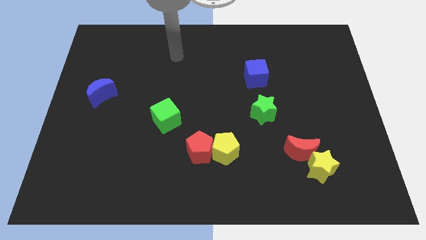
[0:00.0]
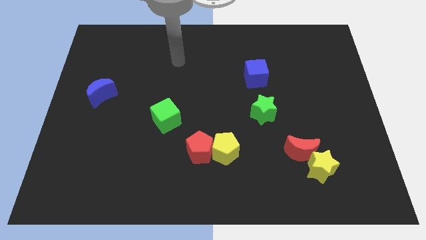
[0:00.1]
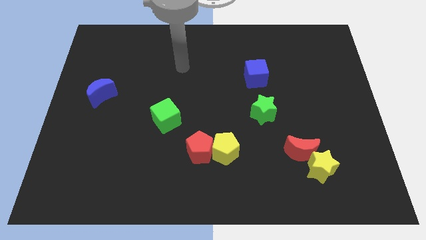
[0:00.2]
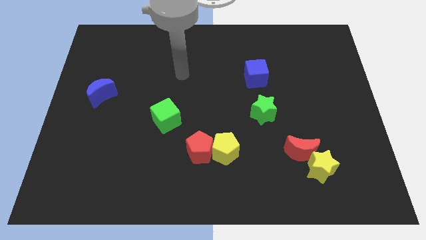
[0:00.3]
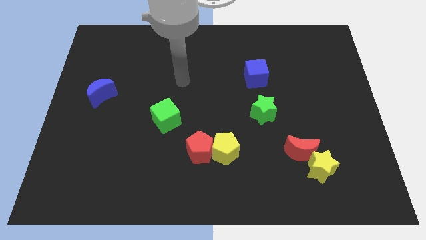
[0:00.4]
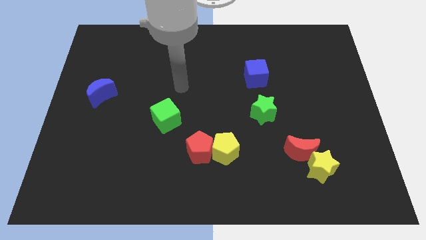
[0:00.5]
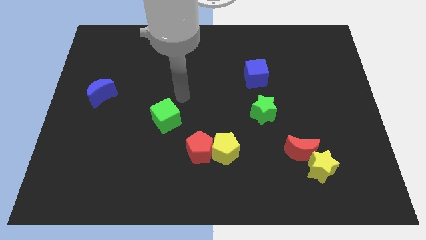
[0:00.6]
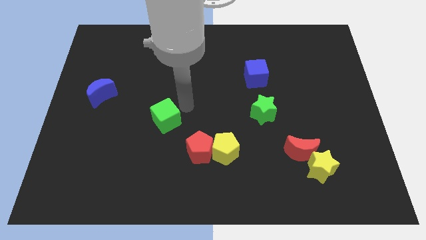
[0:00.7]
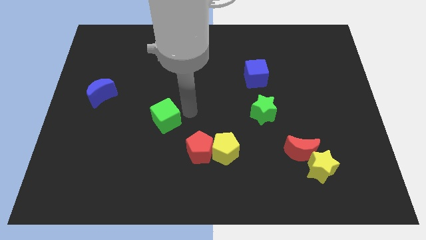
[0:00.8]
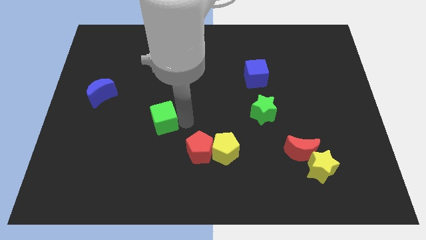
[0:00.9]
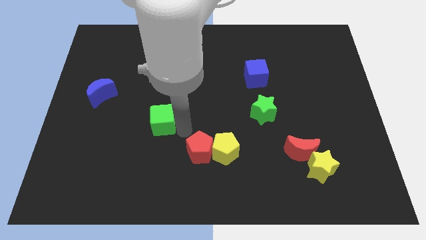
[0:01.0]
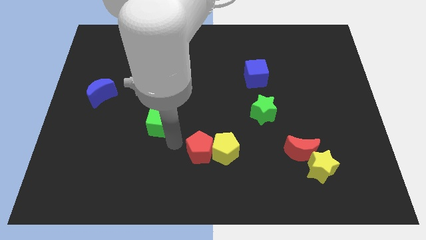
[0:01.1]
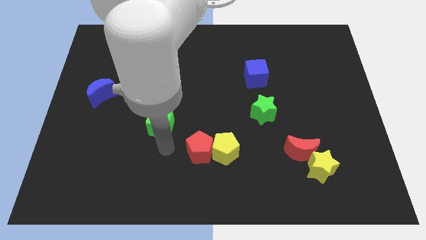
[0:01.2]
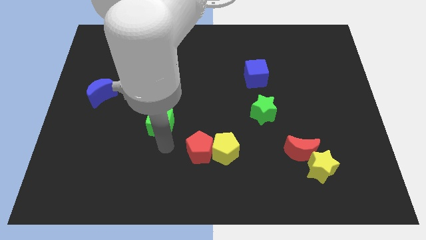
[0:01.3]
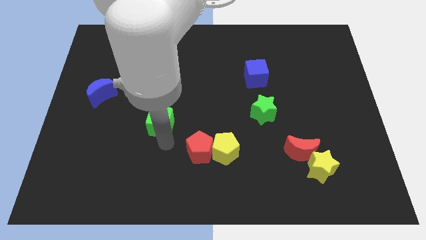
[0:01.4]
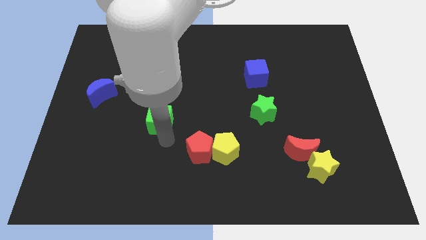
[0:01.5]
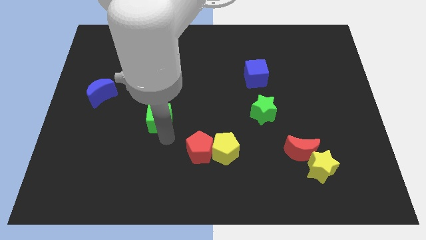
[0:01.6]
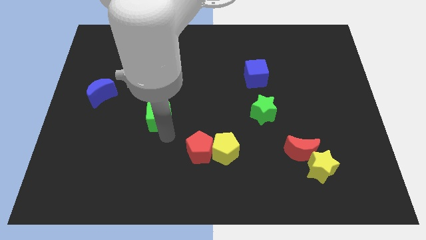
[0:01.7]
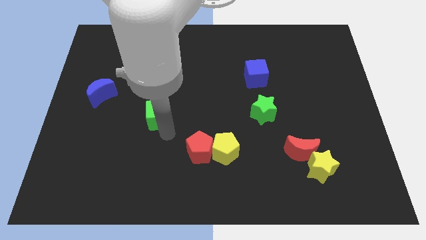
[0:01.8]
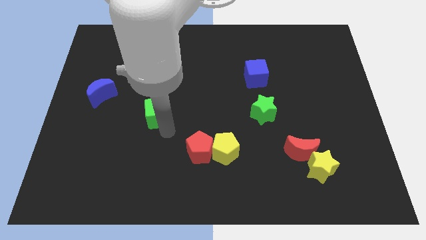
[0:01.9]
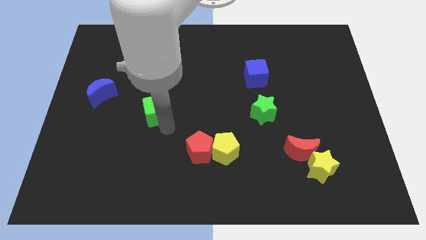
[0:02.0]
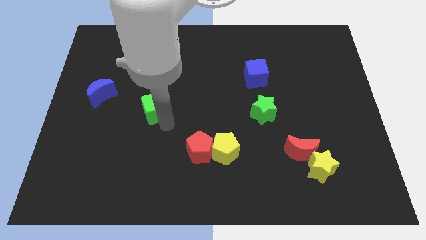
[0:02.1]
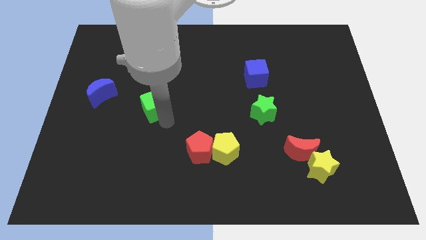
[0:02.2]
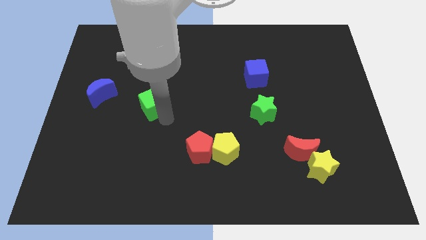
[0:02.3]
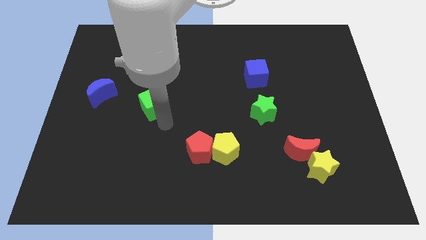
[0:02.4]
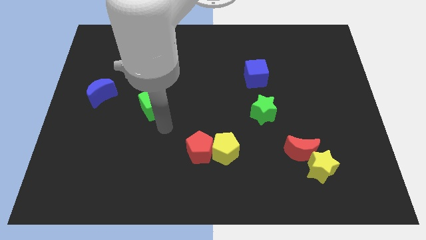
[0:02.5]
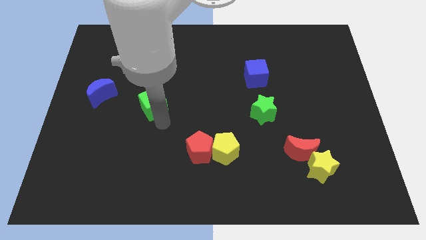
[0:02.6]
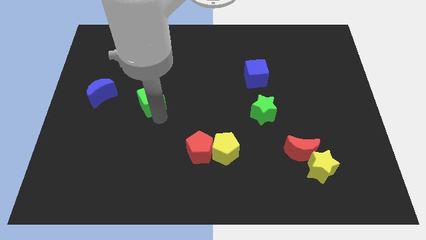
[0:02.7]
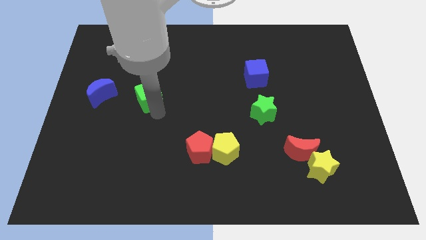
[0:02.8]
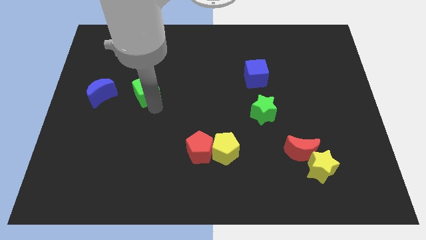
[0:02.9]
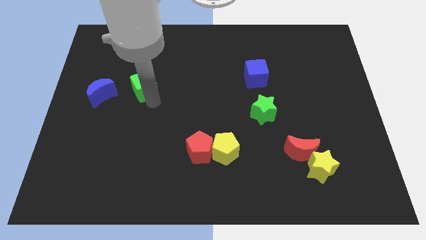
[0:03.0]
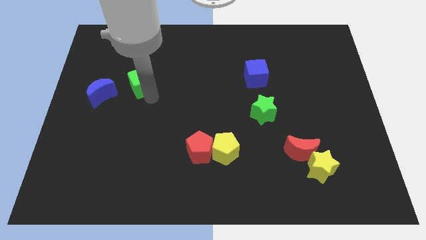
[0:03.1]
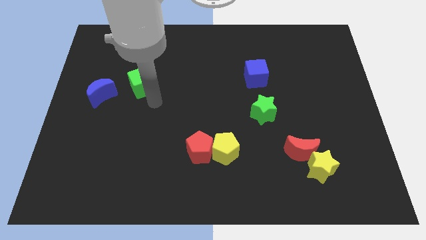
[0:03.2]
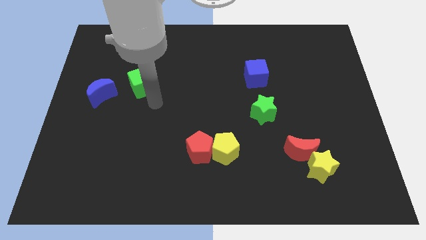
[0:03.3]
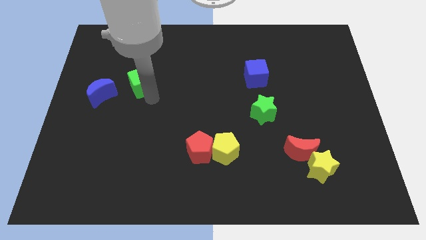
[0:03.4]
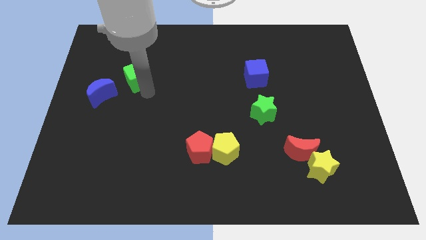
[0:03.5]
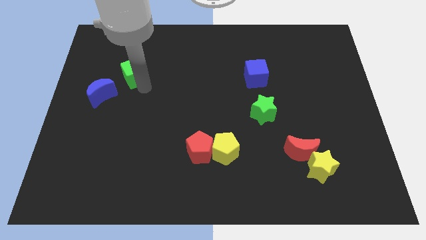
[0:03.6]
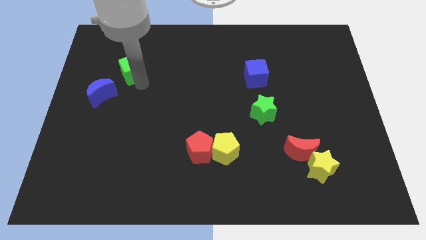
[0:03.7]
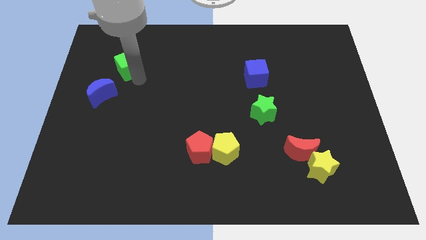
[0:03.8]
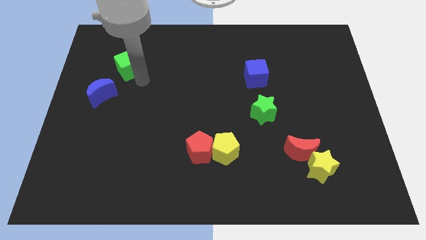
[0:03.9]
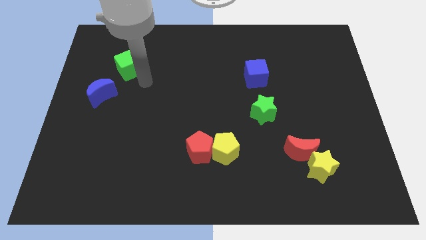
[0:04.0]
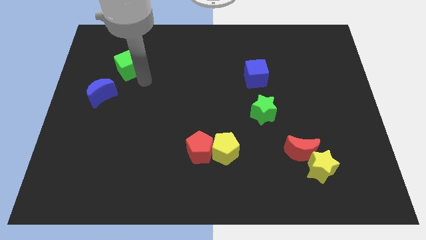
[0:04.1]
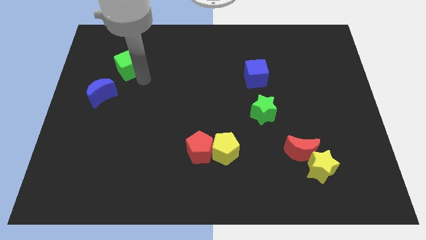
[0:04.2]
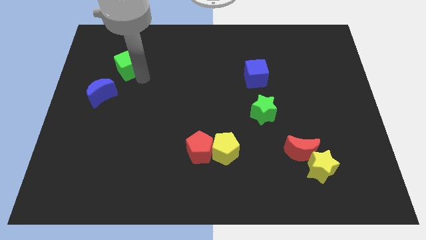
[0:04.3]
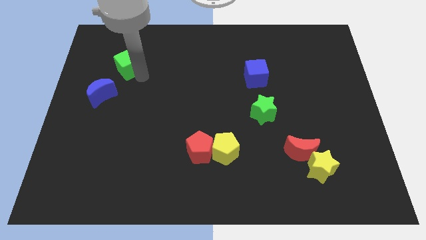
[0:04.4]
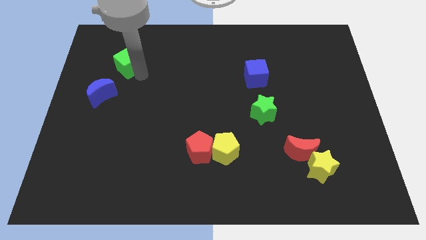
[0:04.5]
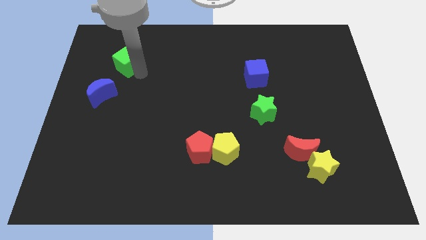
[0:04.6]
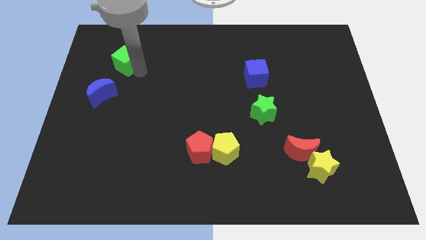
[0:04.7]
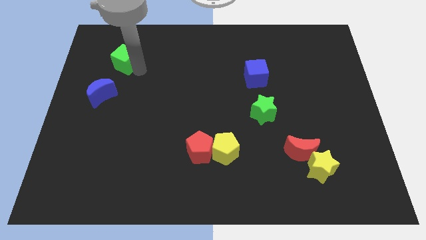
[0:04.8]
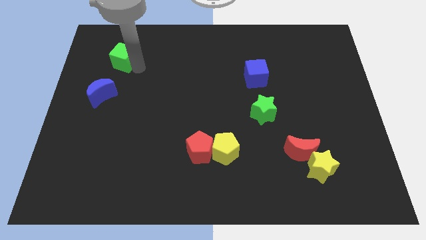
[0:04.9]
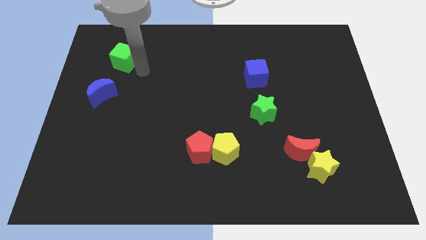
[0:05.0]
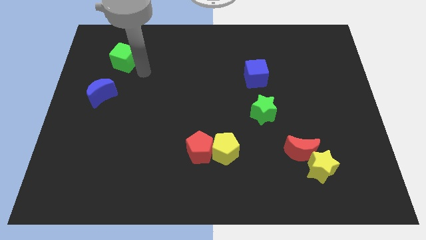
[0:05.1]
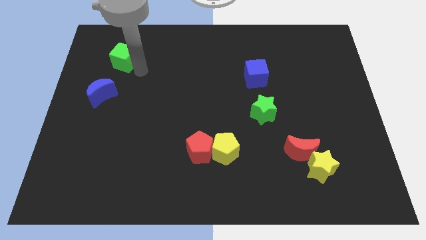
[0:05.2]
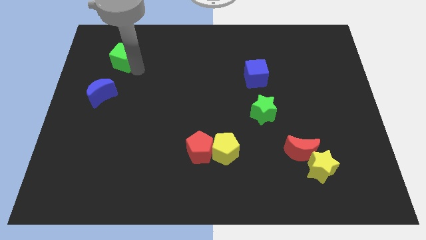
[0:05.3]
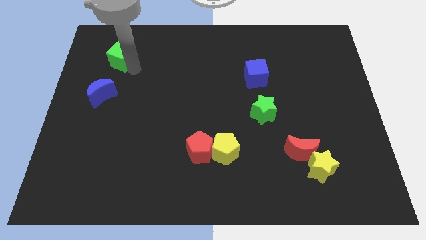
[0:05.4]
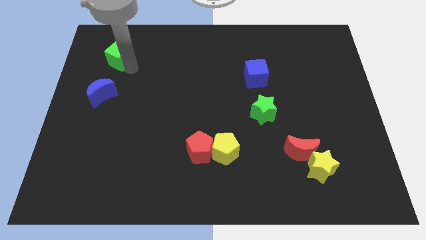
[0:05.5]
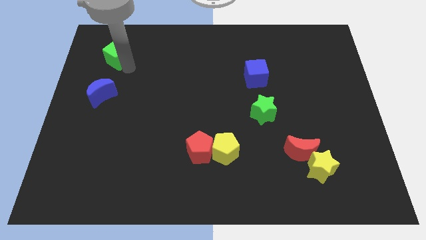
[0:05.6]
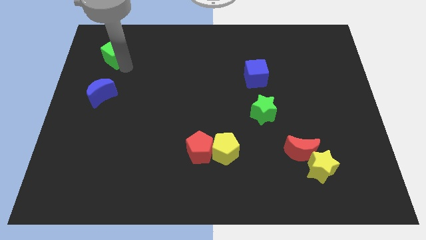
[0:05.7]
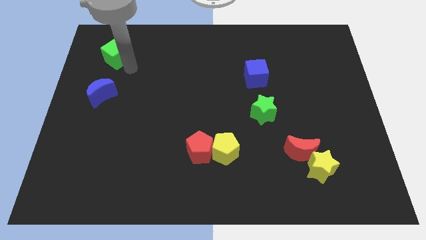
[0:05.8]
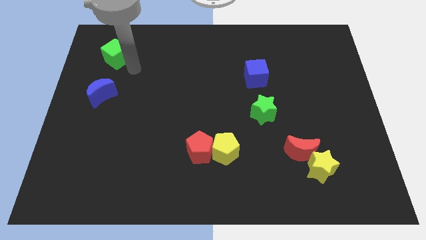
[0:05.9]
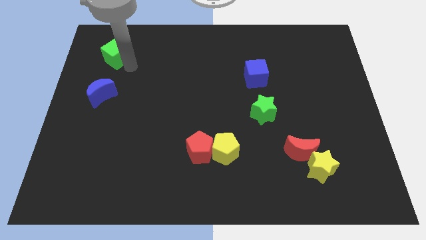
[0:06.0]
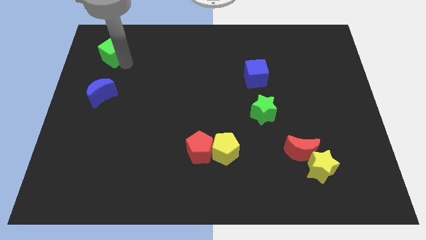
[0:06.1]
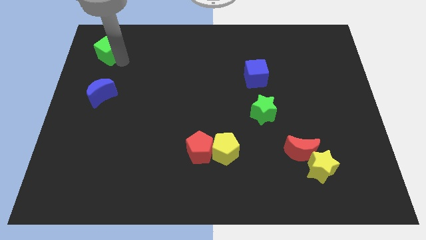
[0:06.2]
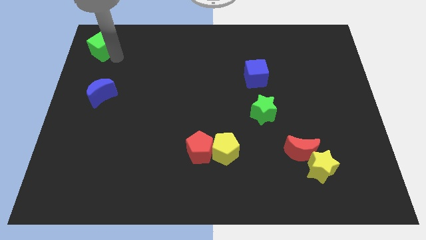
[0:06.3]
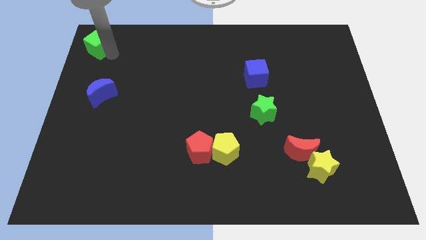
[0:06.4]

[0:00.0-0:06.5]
slide the green cube to the top left
